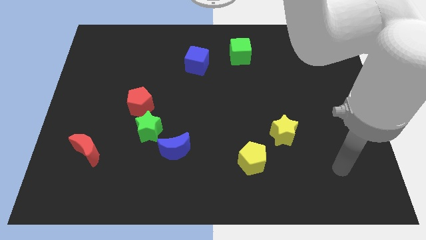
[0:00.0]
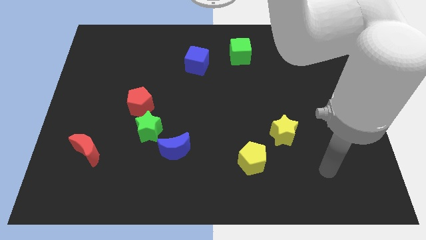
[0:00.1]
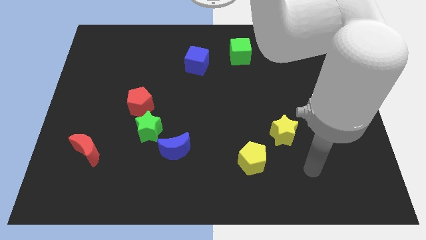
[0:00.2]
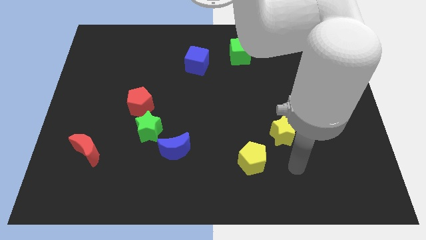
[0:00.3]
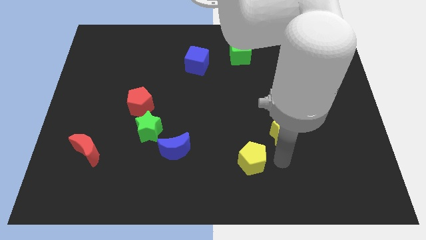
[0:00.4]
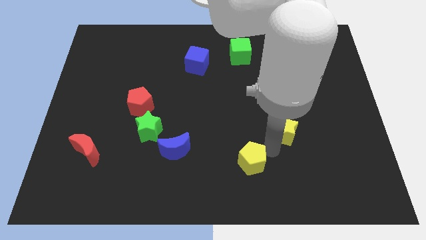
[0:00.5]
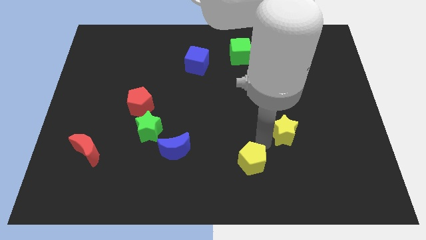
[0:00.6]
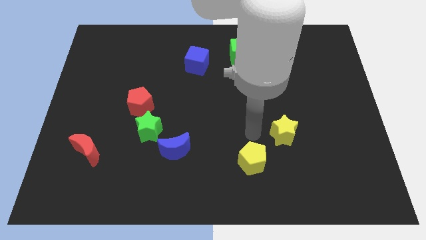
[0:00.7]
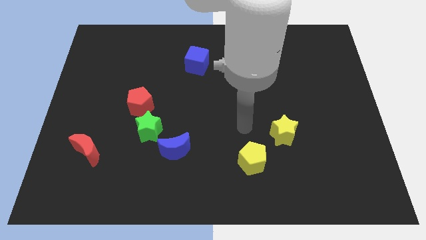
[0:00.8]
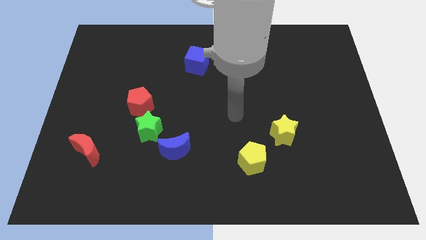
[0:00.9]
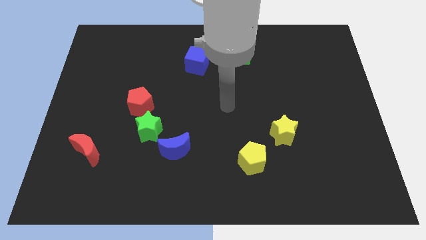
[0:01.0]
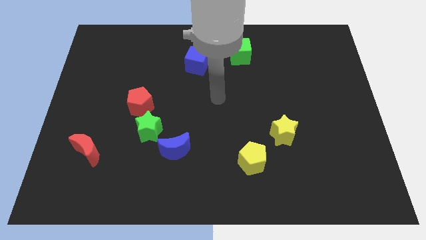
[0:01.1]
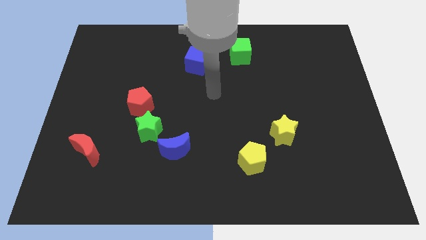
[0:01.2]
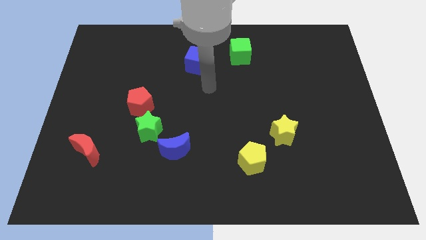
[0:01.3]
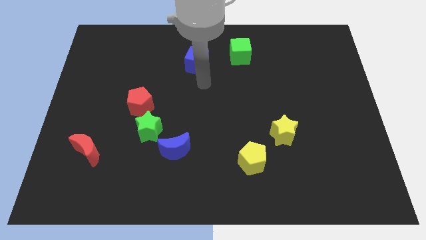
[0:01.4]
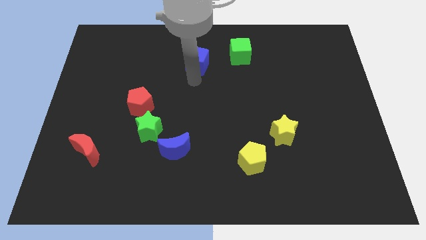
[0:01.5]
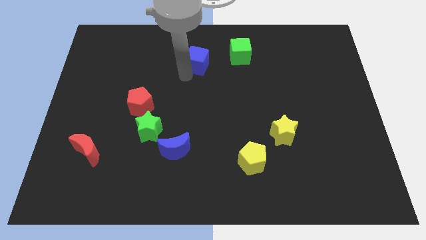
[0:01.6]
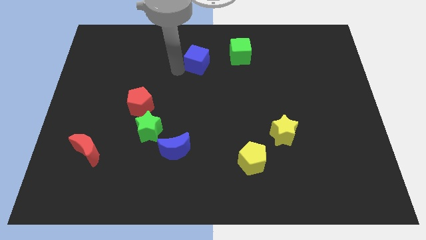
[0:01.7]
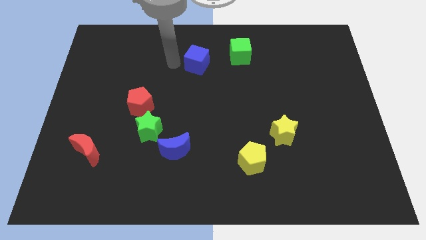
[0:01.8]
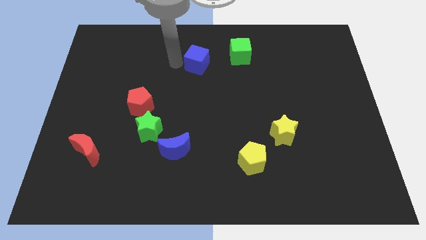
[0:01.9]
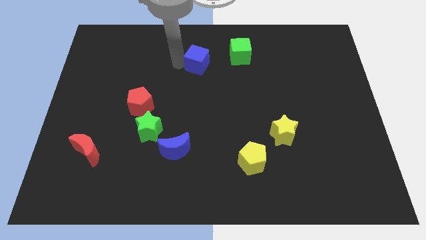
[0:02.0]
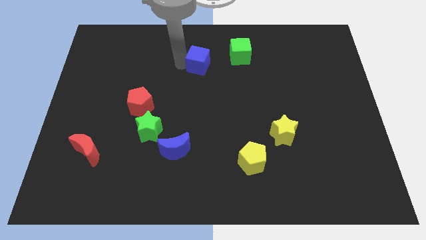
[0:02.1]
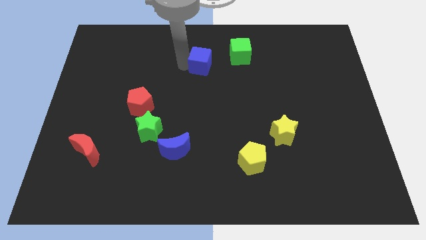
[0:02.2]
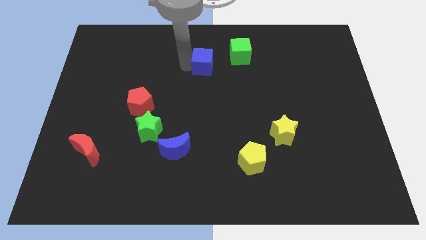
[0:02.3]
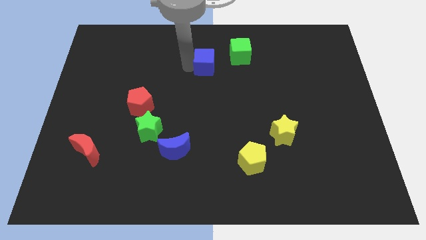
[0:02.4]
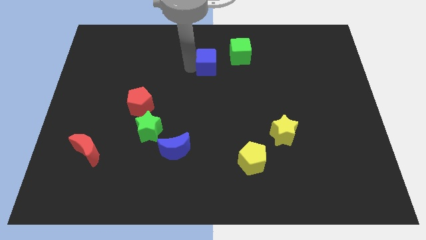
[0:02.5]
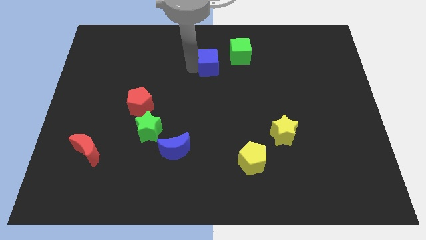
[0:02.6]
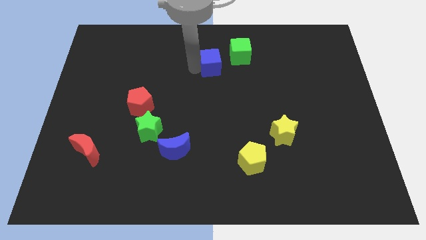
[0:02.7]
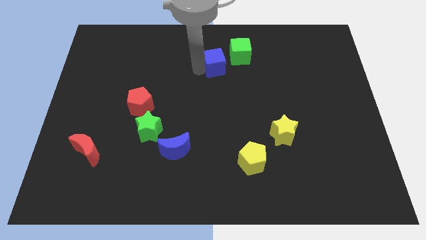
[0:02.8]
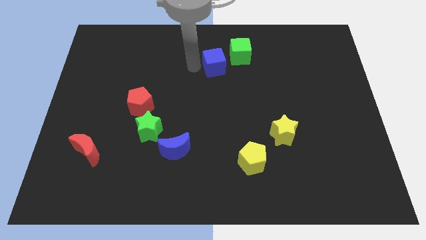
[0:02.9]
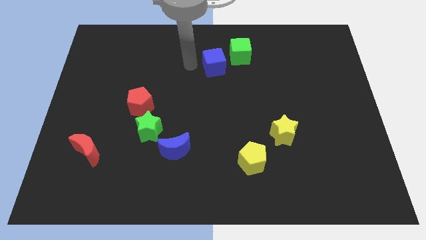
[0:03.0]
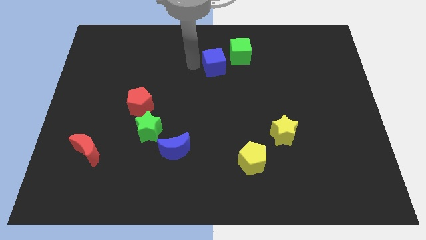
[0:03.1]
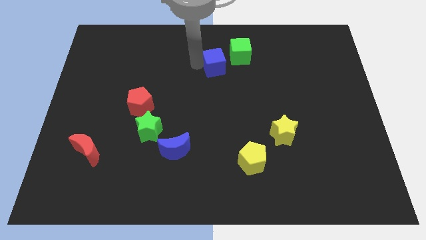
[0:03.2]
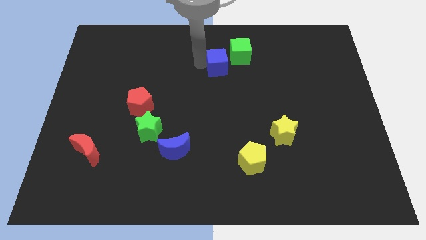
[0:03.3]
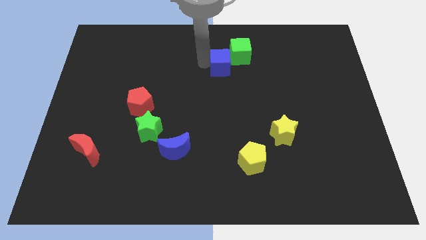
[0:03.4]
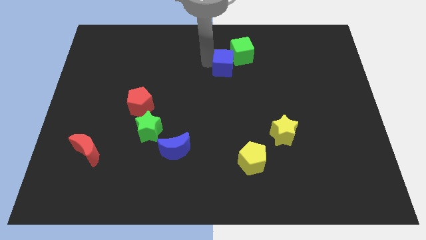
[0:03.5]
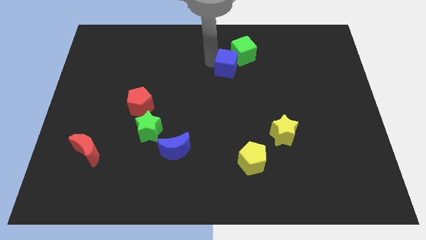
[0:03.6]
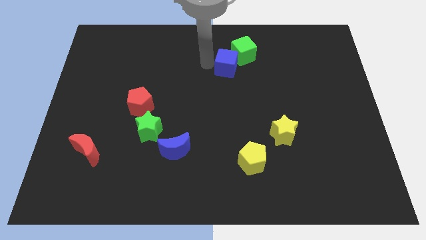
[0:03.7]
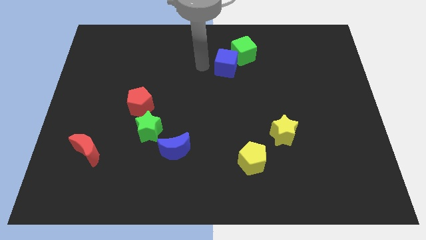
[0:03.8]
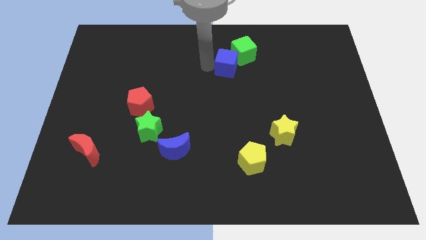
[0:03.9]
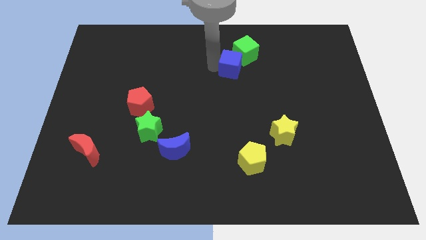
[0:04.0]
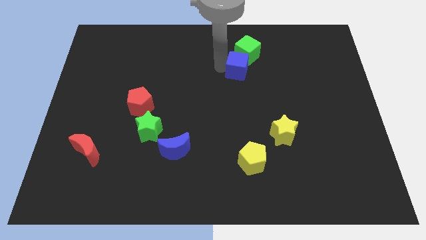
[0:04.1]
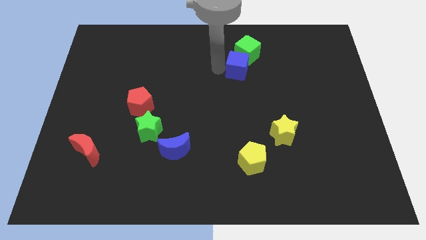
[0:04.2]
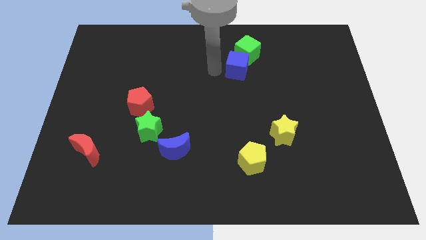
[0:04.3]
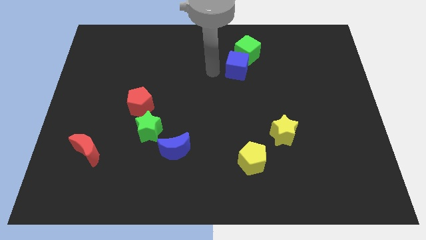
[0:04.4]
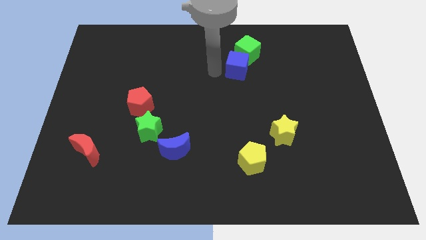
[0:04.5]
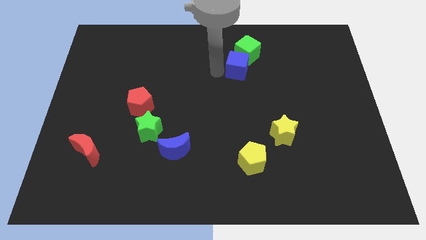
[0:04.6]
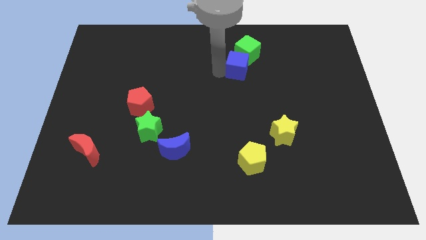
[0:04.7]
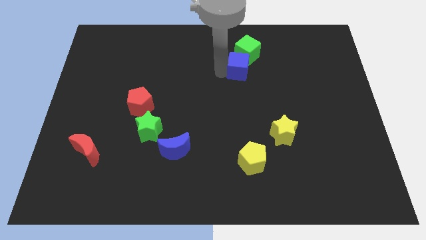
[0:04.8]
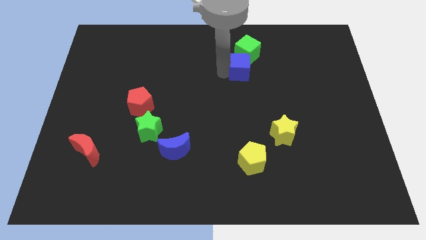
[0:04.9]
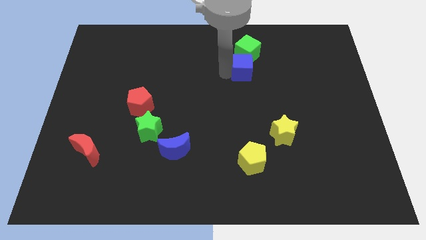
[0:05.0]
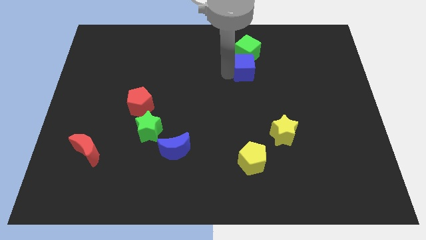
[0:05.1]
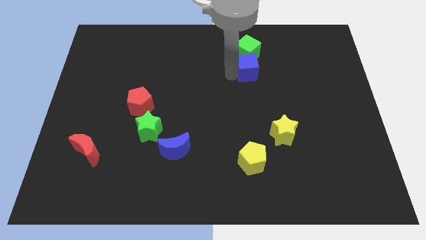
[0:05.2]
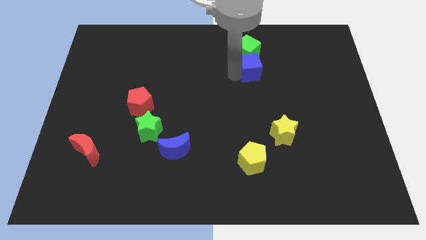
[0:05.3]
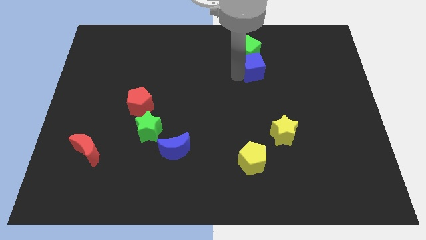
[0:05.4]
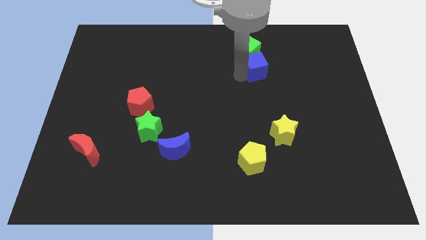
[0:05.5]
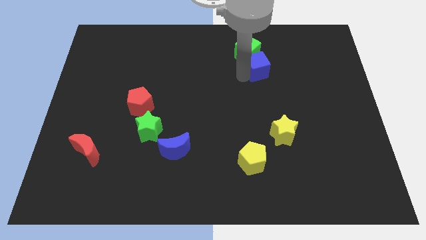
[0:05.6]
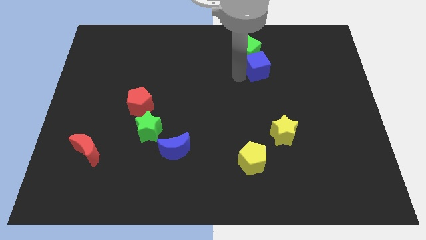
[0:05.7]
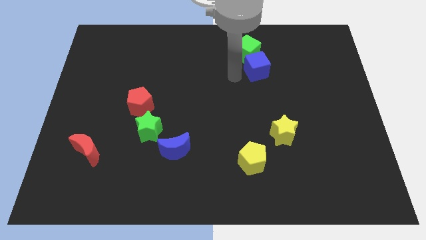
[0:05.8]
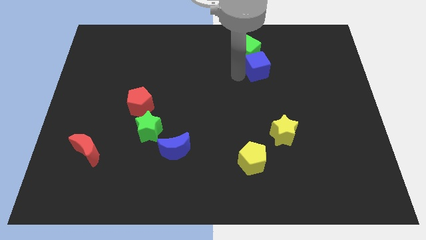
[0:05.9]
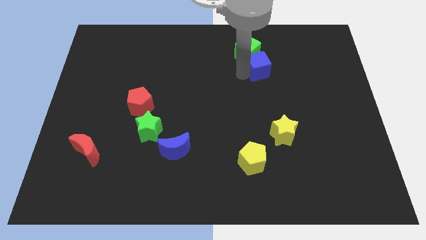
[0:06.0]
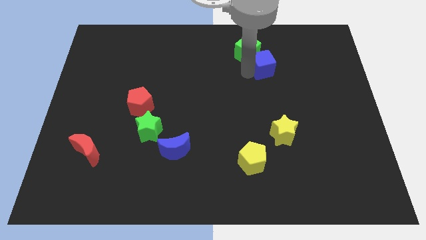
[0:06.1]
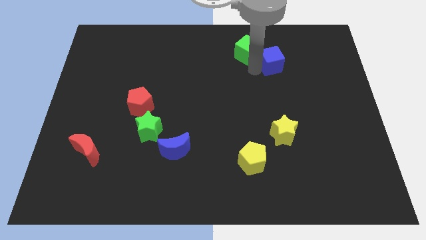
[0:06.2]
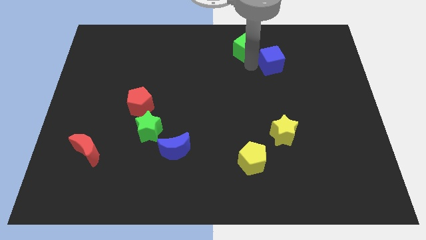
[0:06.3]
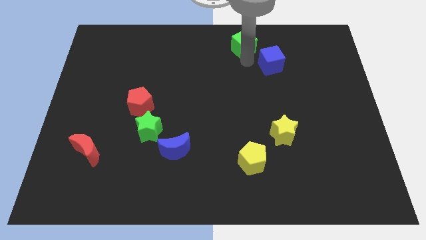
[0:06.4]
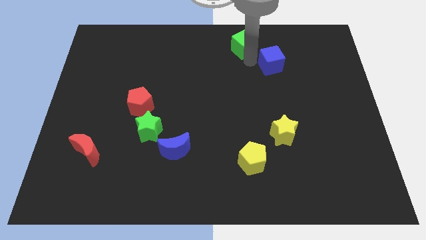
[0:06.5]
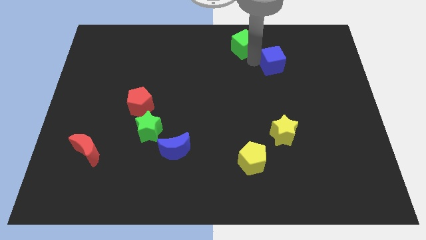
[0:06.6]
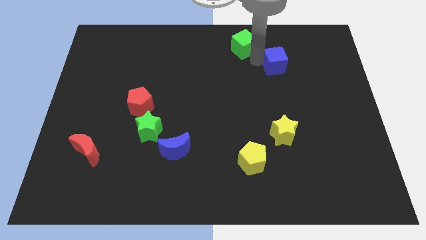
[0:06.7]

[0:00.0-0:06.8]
move the blue cube to the right

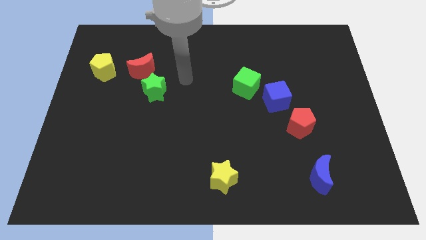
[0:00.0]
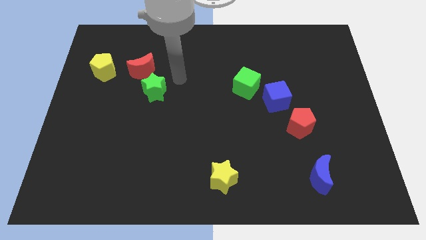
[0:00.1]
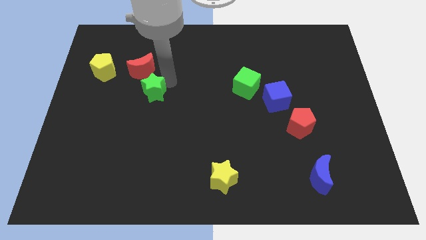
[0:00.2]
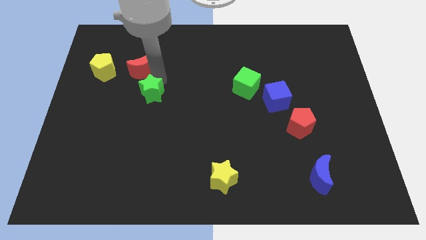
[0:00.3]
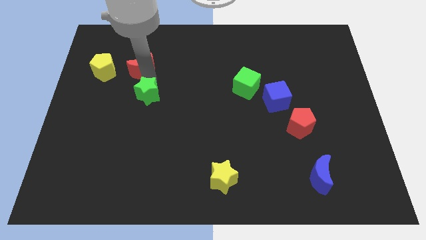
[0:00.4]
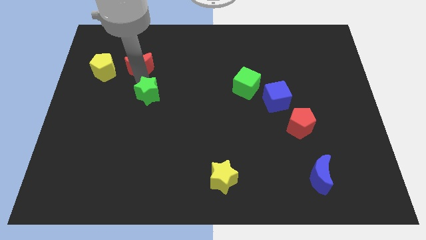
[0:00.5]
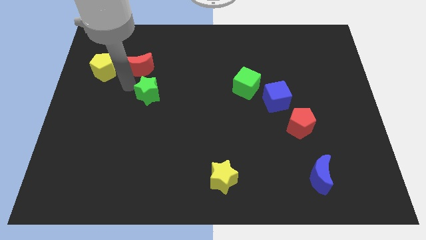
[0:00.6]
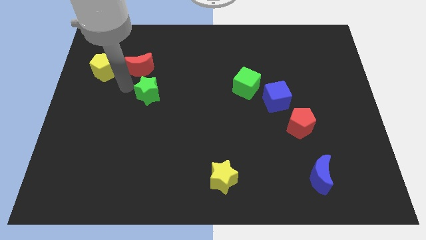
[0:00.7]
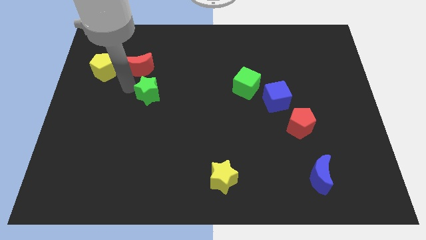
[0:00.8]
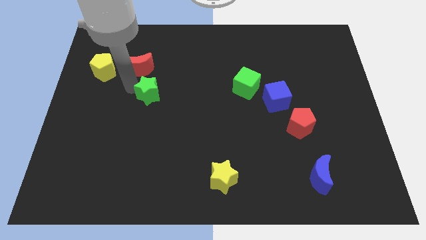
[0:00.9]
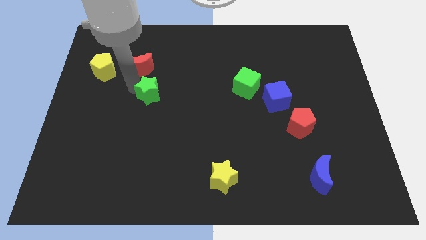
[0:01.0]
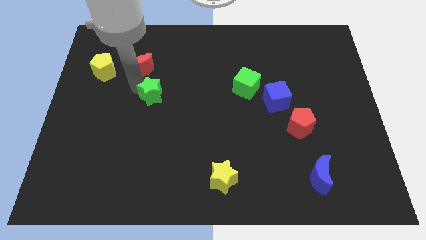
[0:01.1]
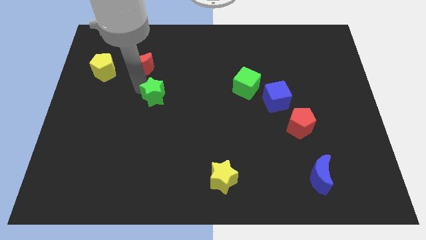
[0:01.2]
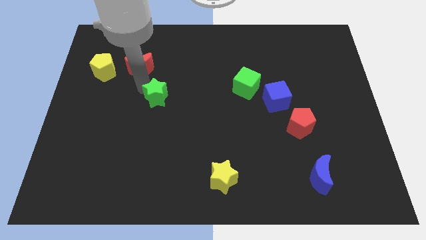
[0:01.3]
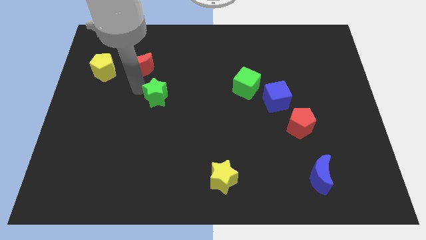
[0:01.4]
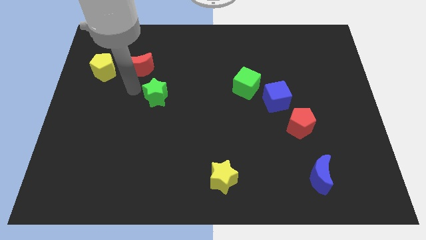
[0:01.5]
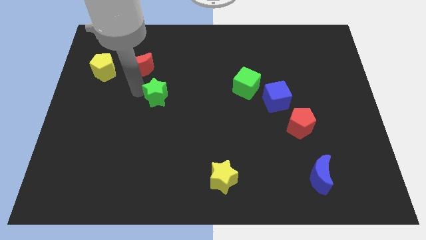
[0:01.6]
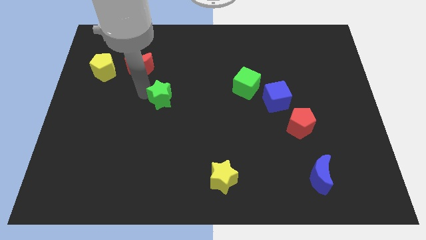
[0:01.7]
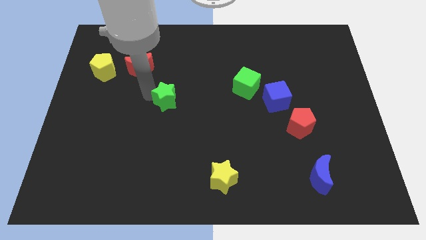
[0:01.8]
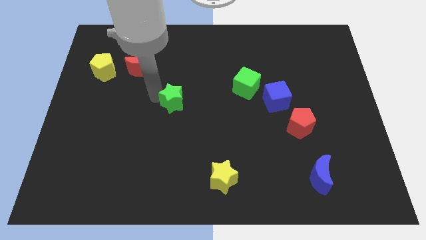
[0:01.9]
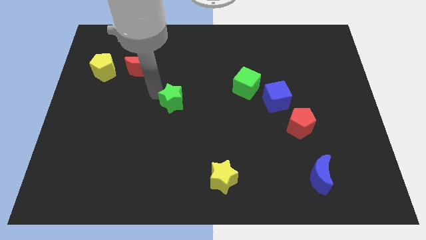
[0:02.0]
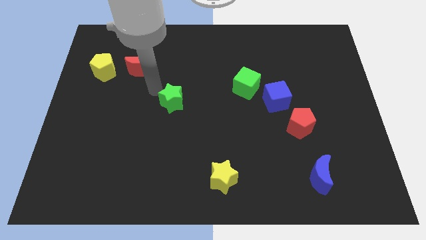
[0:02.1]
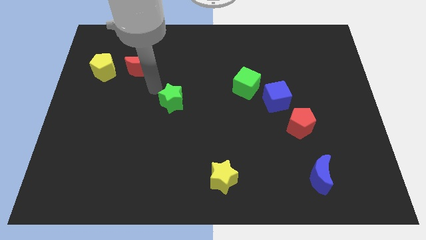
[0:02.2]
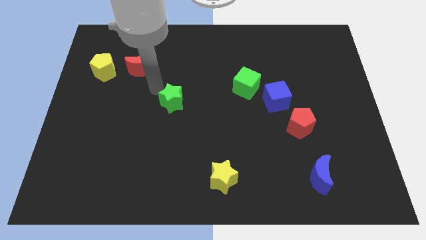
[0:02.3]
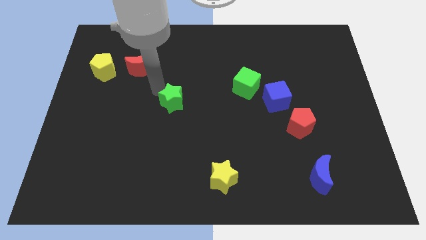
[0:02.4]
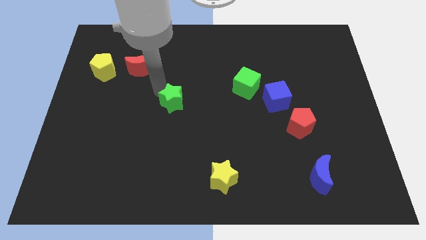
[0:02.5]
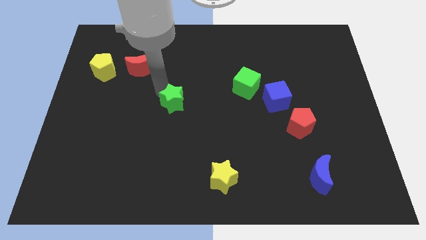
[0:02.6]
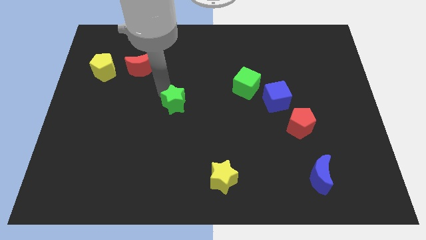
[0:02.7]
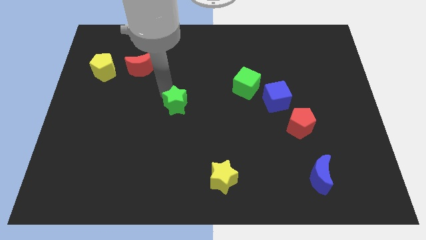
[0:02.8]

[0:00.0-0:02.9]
push the green star down and then to the right a bit
